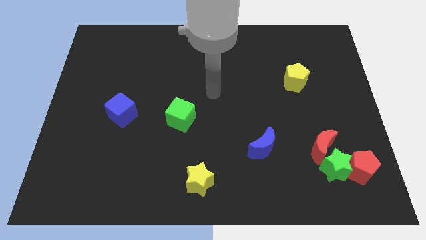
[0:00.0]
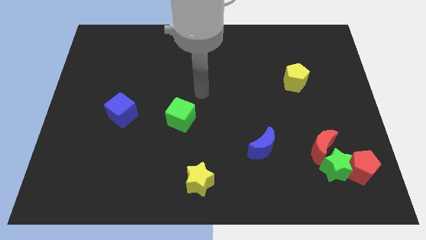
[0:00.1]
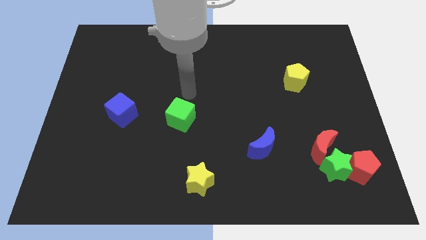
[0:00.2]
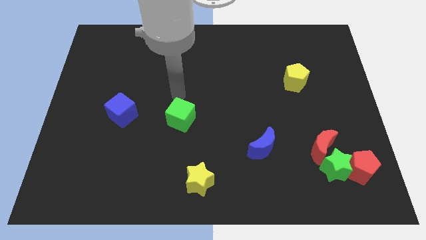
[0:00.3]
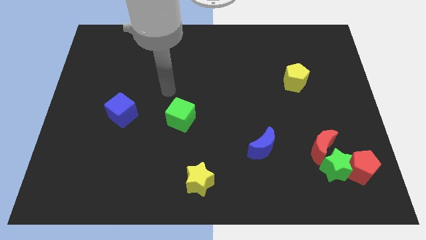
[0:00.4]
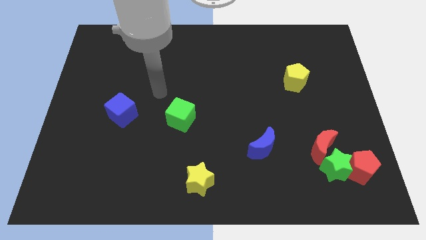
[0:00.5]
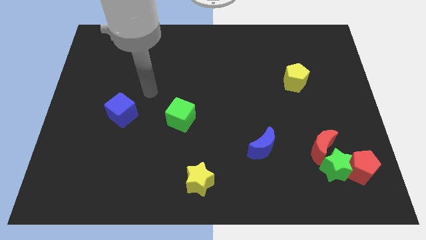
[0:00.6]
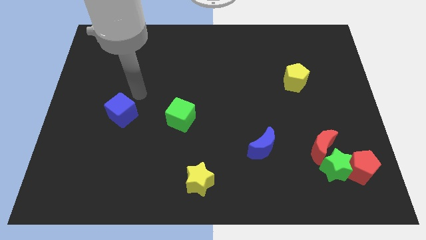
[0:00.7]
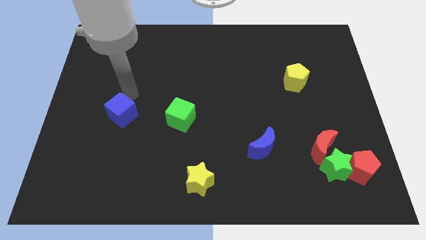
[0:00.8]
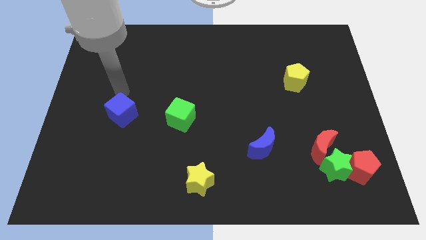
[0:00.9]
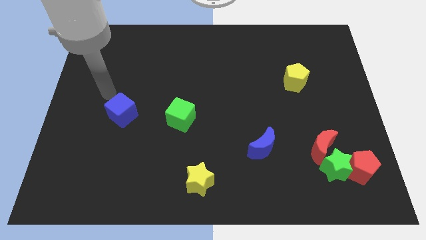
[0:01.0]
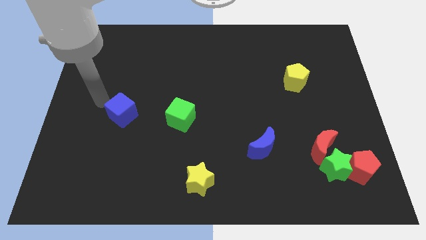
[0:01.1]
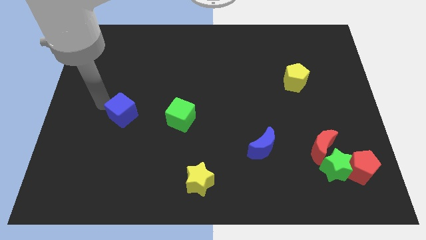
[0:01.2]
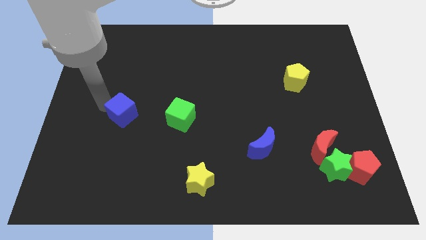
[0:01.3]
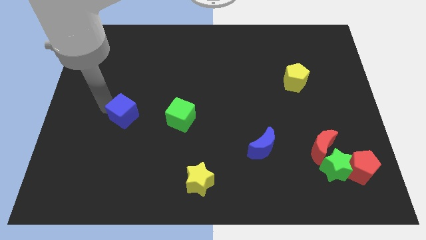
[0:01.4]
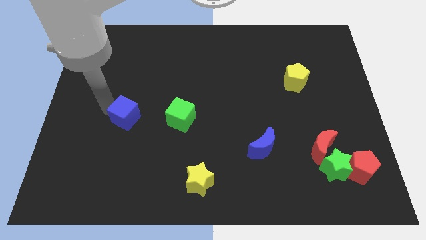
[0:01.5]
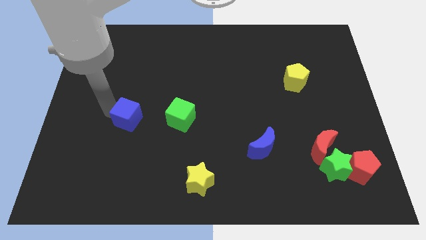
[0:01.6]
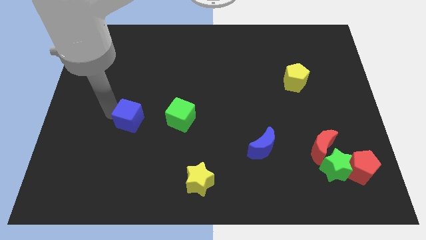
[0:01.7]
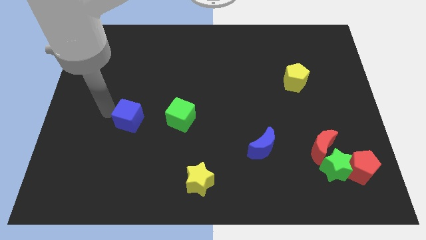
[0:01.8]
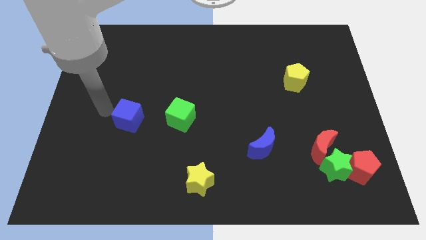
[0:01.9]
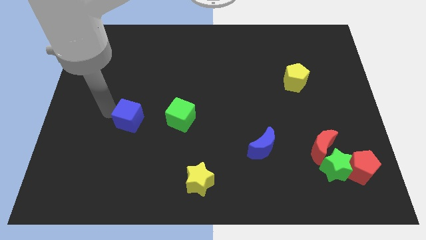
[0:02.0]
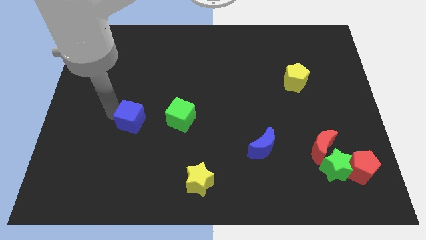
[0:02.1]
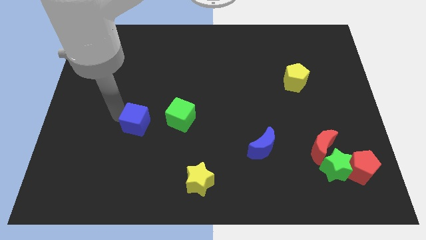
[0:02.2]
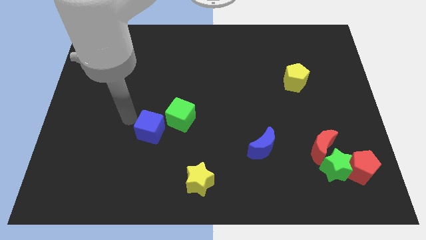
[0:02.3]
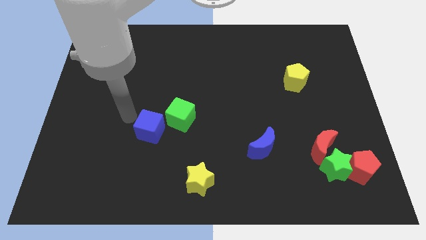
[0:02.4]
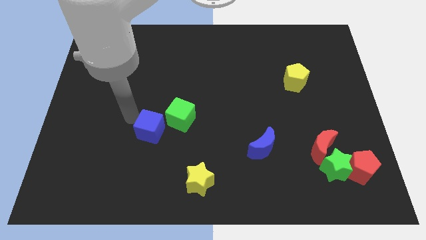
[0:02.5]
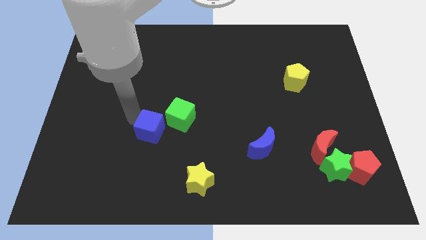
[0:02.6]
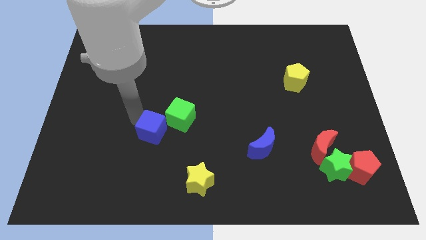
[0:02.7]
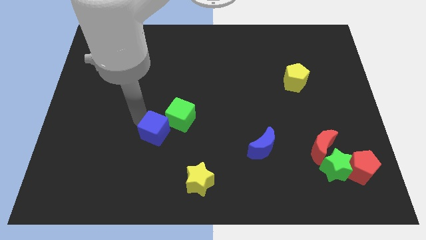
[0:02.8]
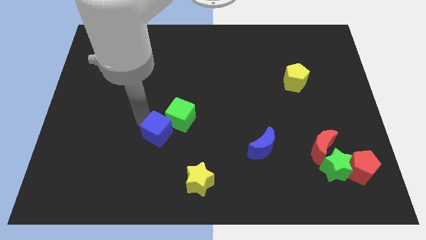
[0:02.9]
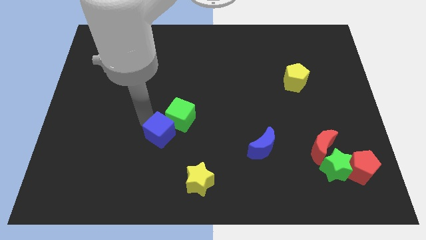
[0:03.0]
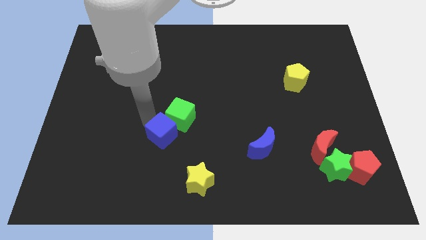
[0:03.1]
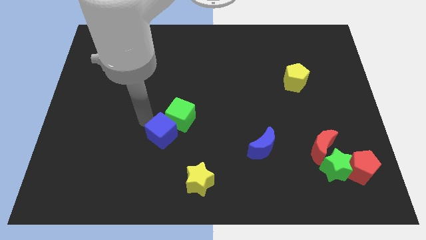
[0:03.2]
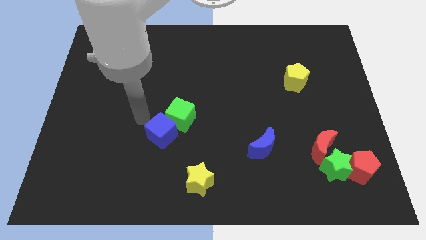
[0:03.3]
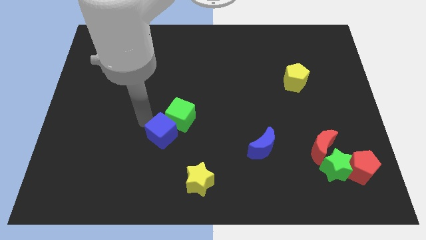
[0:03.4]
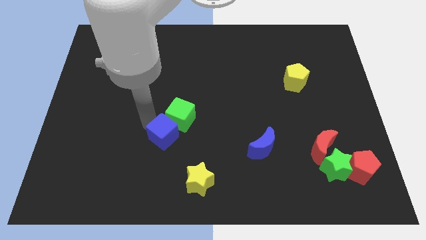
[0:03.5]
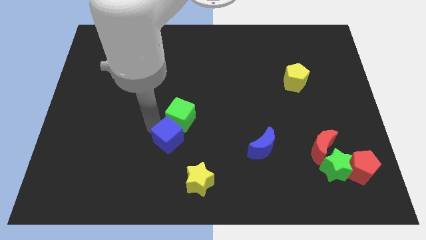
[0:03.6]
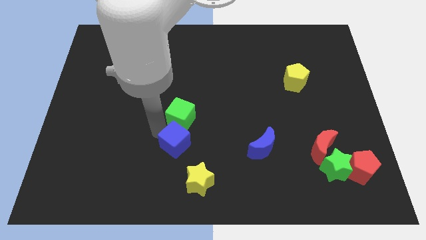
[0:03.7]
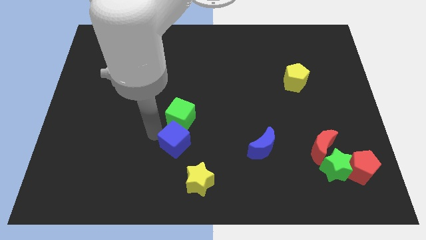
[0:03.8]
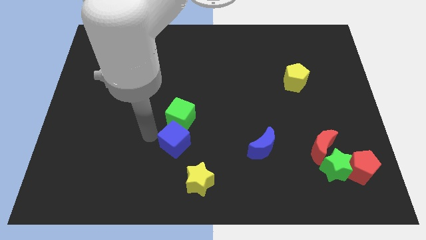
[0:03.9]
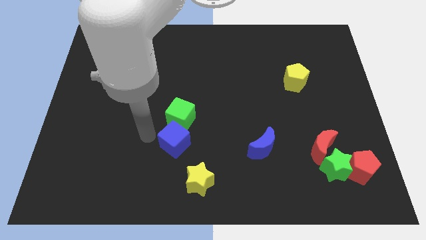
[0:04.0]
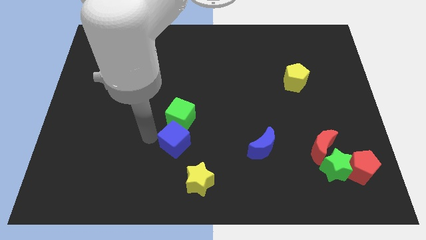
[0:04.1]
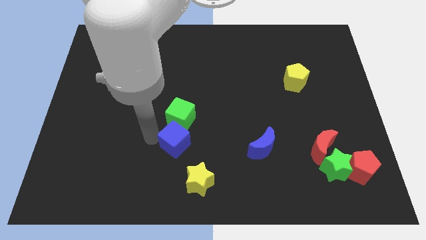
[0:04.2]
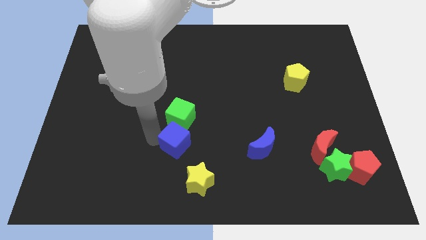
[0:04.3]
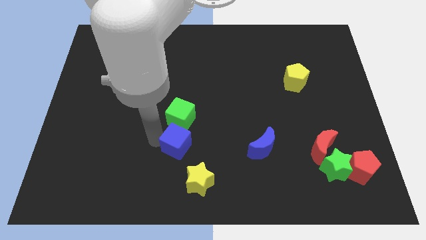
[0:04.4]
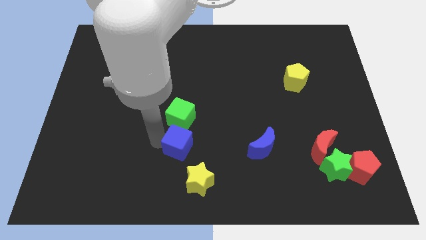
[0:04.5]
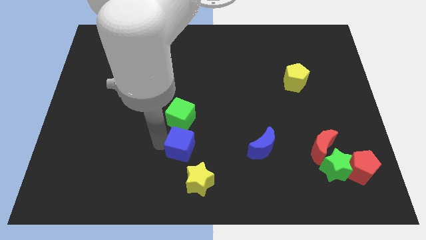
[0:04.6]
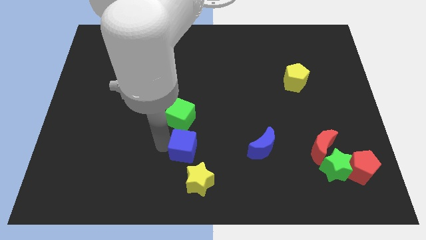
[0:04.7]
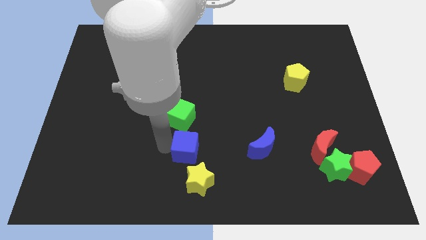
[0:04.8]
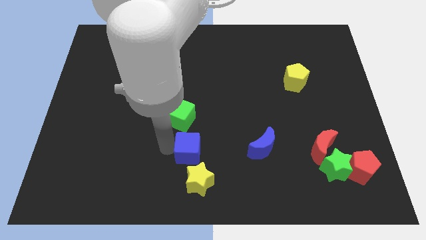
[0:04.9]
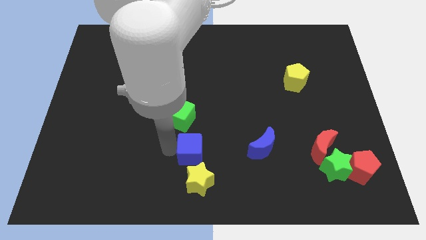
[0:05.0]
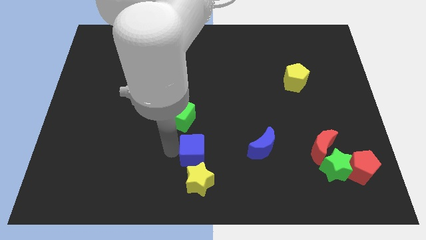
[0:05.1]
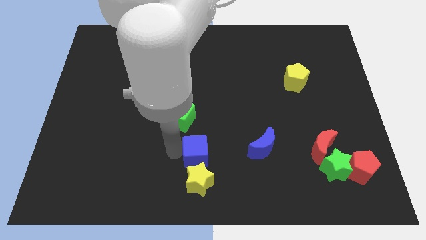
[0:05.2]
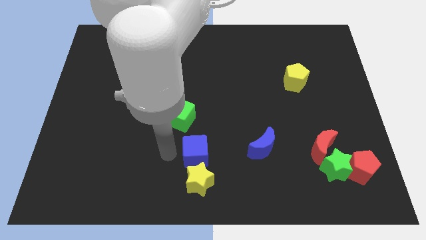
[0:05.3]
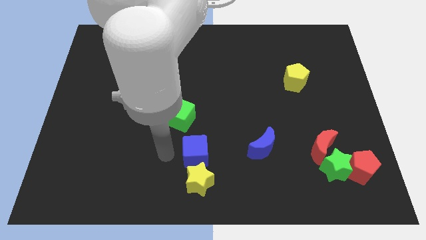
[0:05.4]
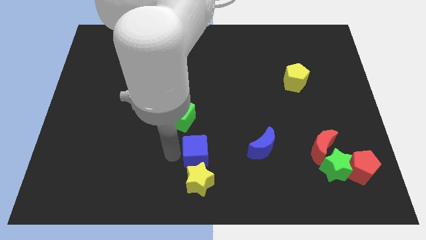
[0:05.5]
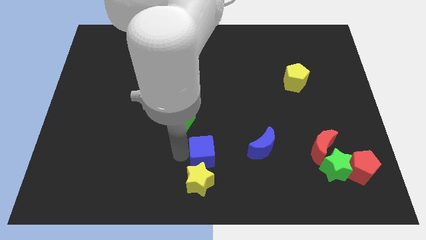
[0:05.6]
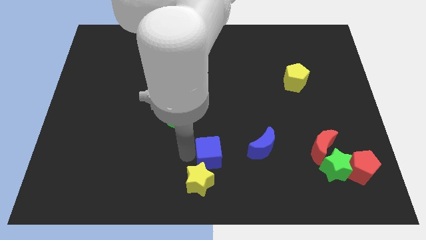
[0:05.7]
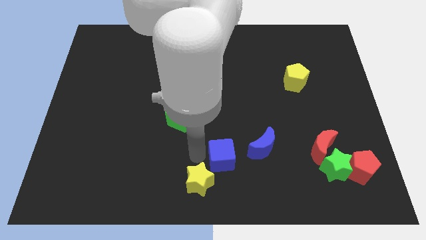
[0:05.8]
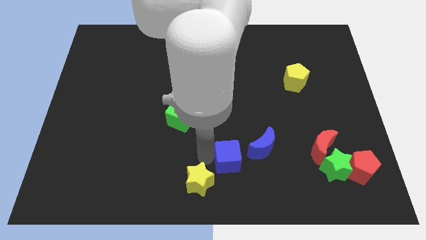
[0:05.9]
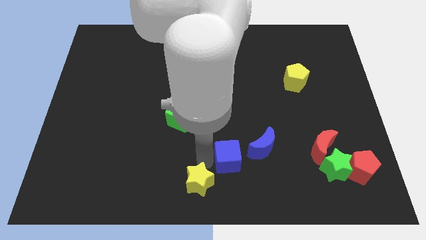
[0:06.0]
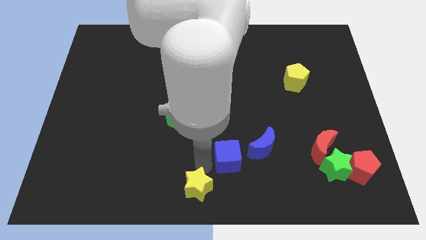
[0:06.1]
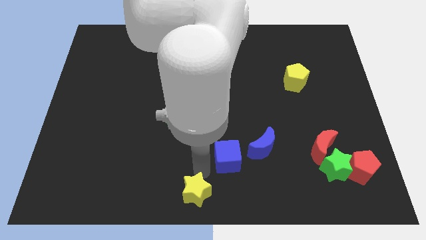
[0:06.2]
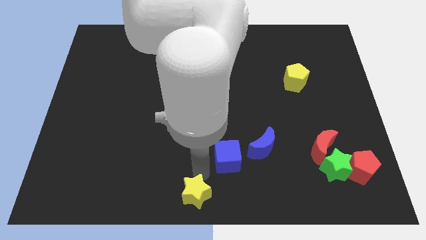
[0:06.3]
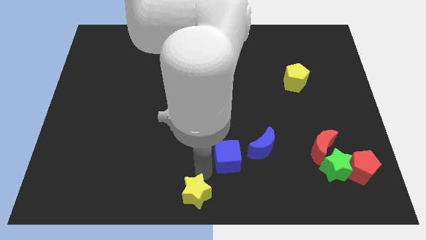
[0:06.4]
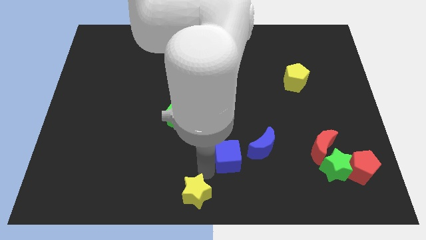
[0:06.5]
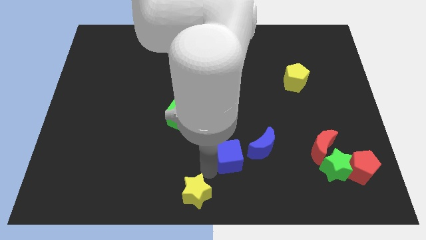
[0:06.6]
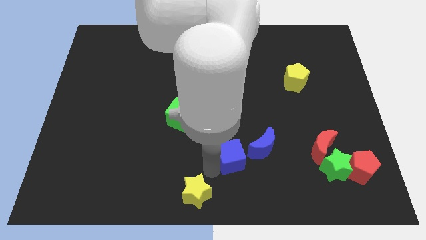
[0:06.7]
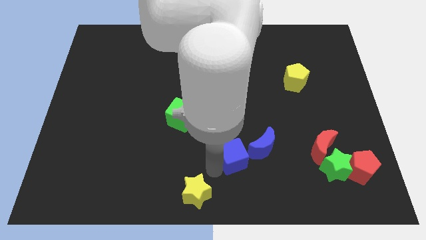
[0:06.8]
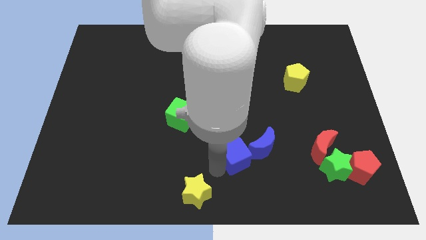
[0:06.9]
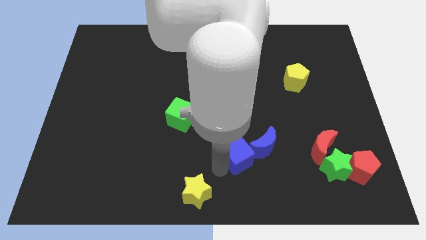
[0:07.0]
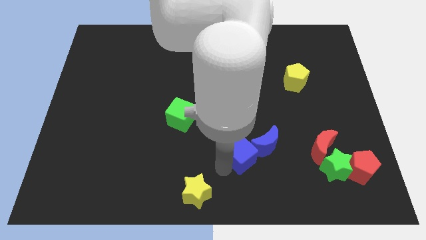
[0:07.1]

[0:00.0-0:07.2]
push the blue cube next to the blue moon
